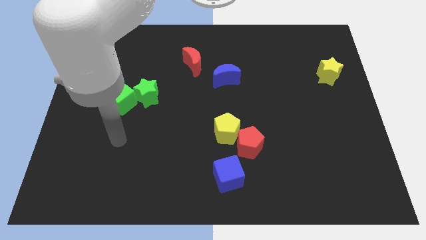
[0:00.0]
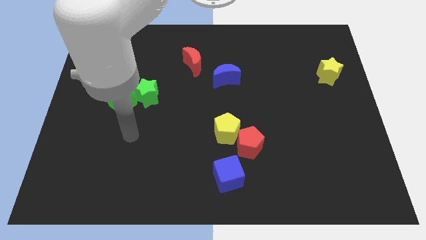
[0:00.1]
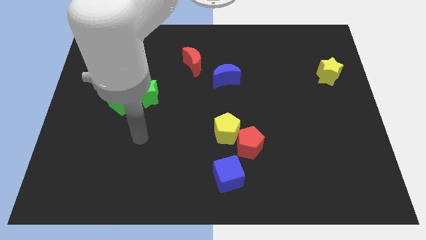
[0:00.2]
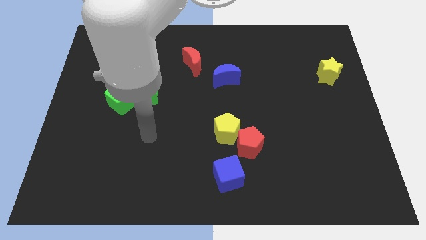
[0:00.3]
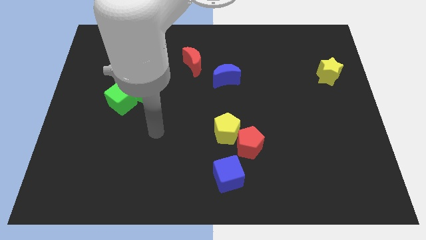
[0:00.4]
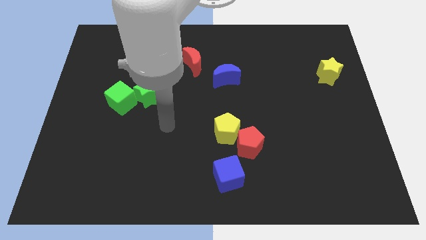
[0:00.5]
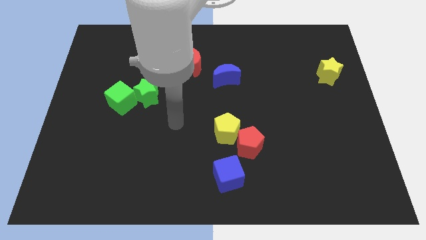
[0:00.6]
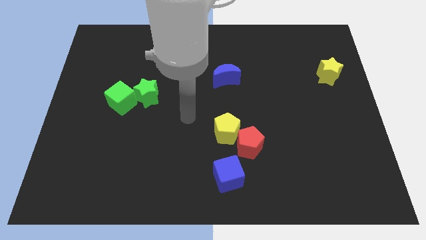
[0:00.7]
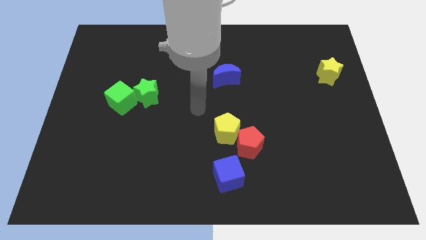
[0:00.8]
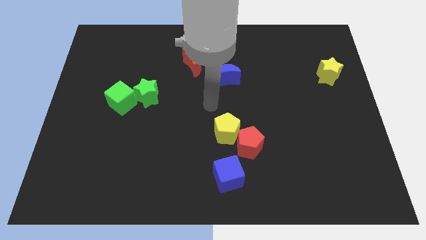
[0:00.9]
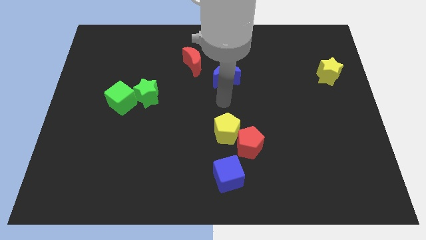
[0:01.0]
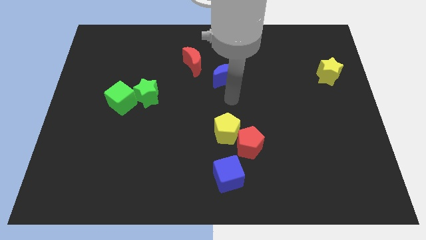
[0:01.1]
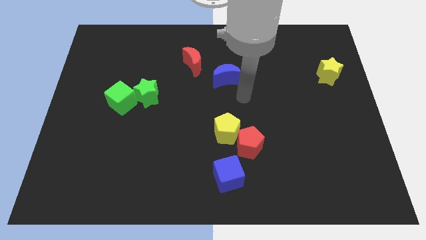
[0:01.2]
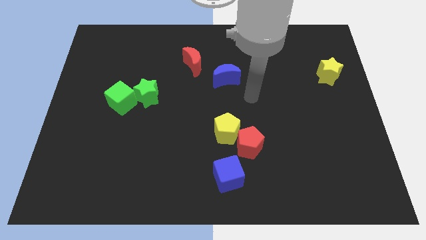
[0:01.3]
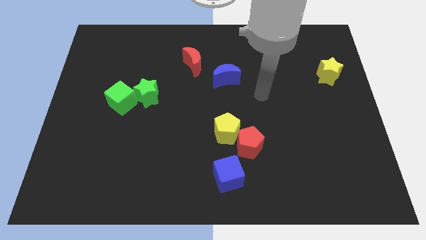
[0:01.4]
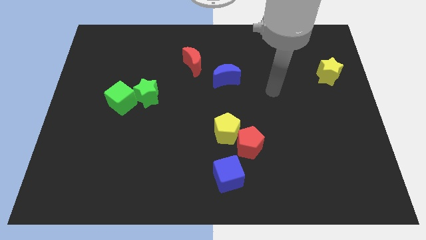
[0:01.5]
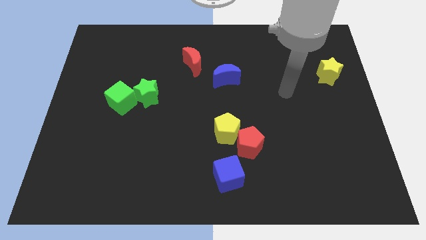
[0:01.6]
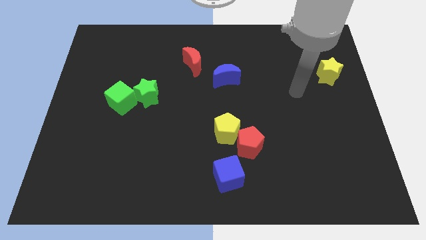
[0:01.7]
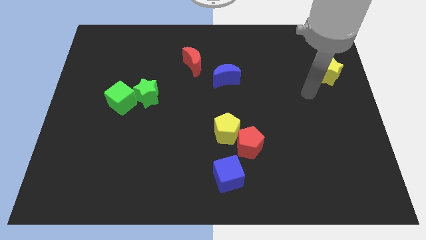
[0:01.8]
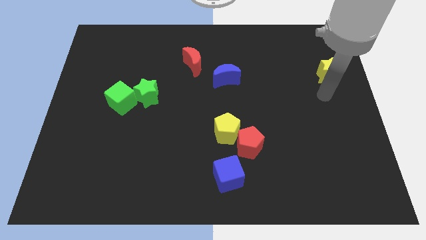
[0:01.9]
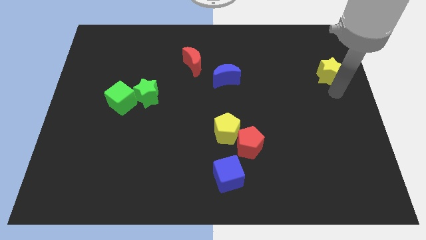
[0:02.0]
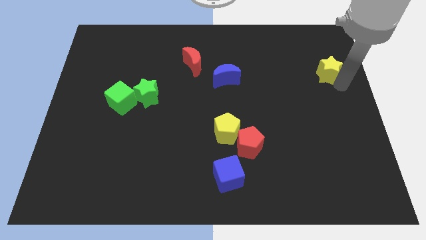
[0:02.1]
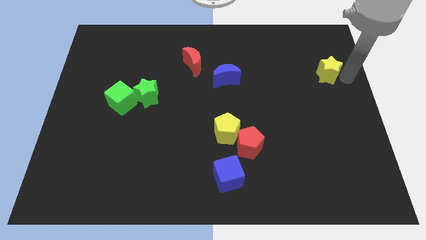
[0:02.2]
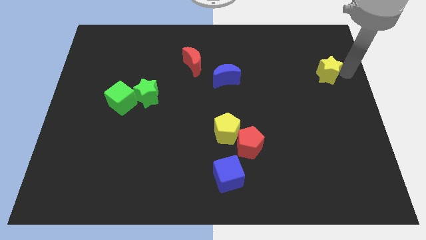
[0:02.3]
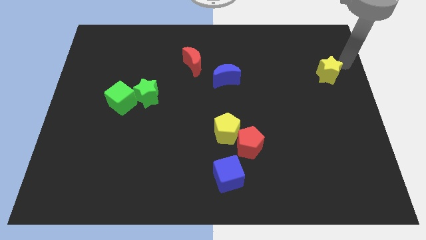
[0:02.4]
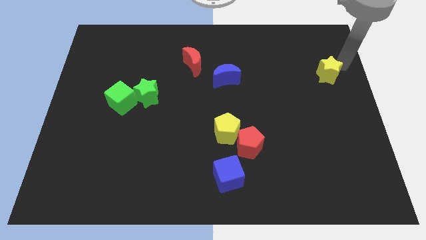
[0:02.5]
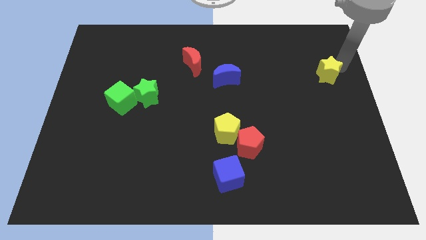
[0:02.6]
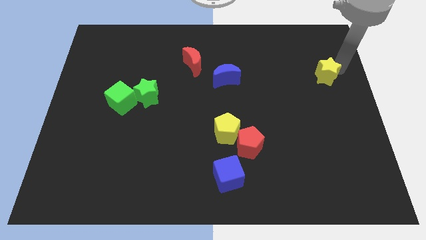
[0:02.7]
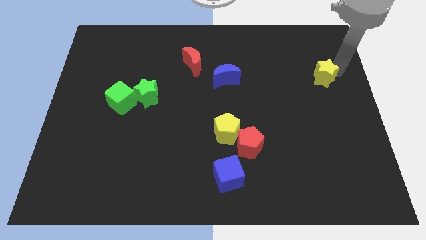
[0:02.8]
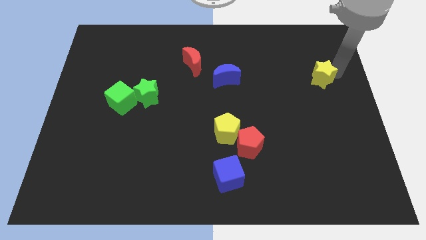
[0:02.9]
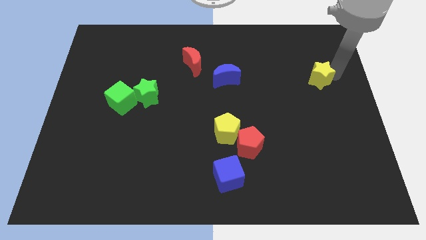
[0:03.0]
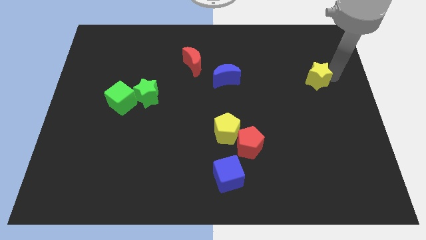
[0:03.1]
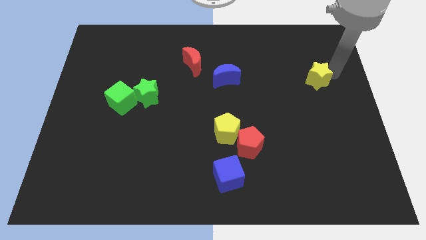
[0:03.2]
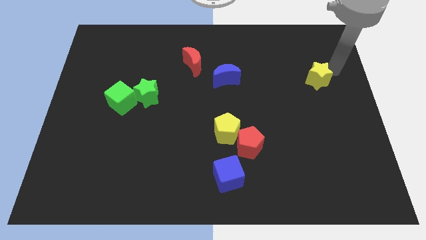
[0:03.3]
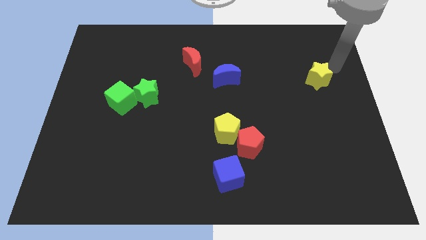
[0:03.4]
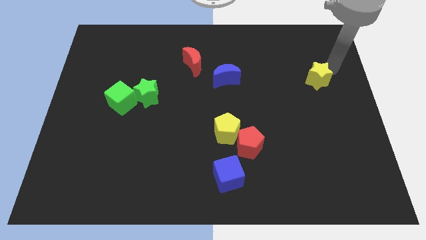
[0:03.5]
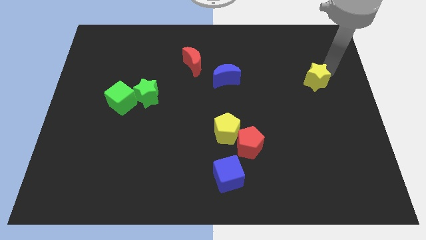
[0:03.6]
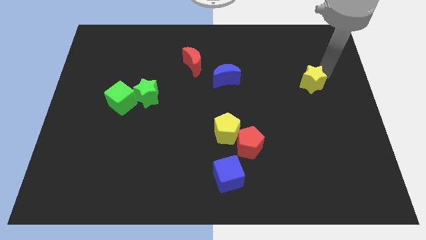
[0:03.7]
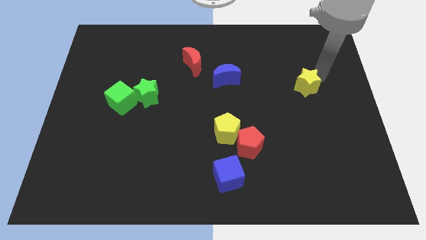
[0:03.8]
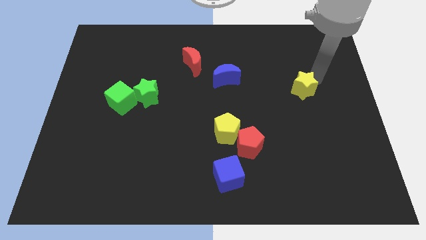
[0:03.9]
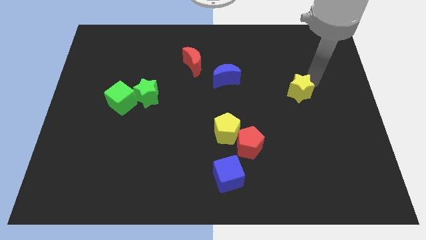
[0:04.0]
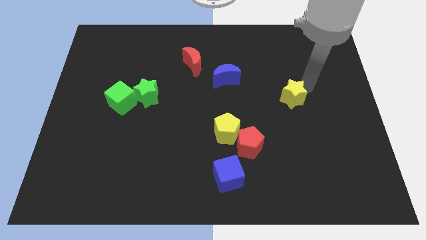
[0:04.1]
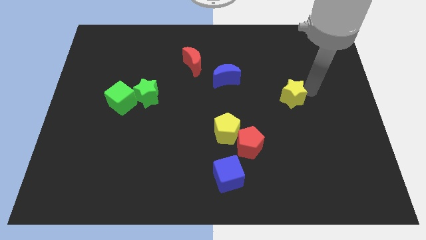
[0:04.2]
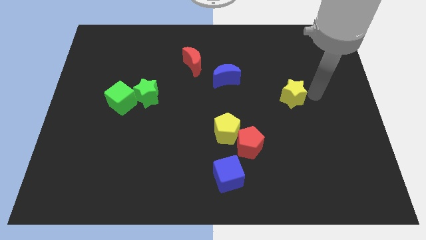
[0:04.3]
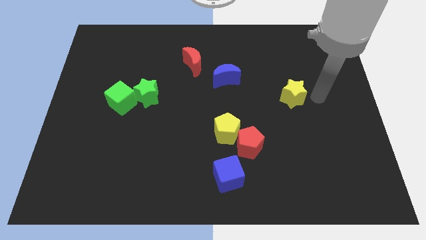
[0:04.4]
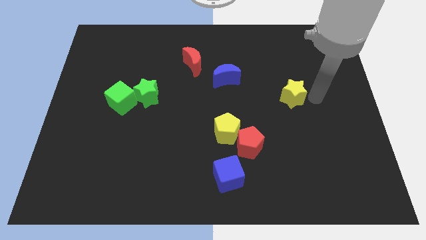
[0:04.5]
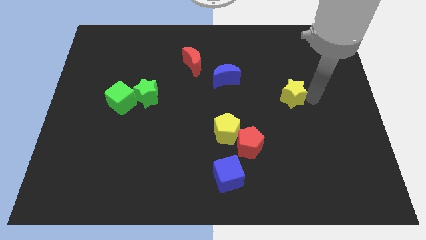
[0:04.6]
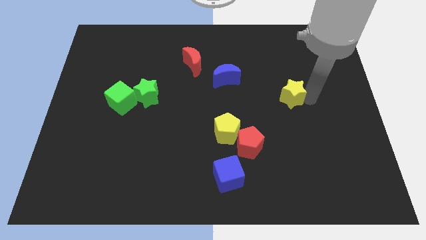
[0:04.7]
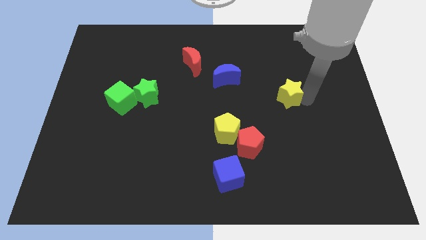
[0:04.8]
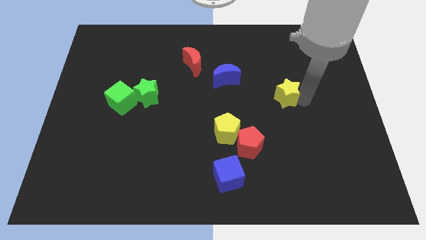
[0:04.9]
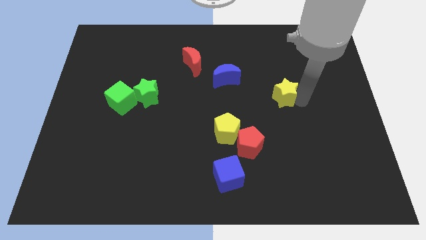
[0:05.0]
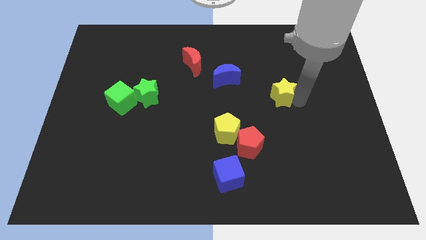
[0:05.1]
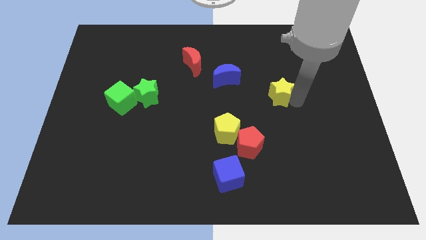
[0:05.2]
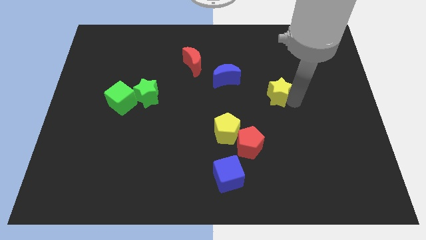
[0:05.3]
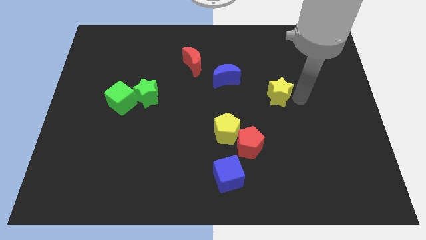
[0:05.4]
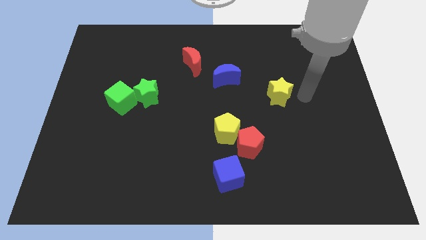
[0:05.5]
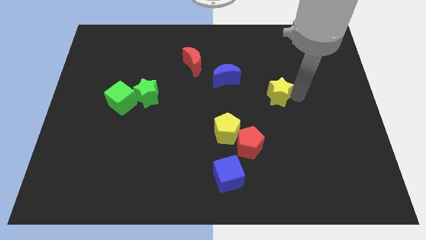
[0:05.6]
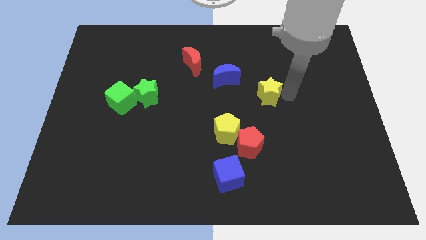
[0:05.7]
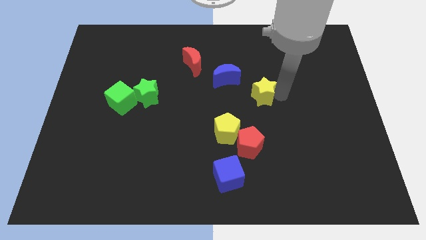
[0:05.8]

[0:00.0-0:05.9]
move the yellow star to the center of the board

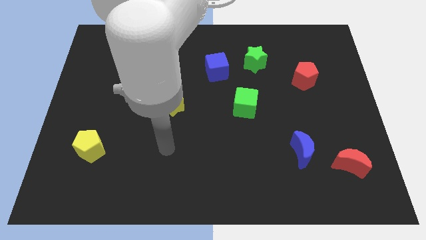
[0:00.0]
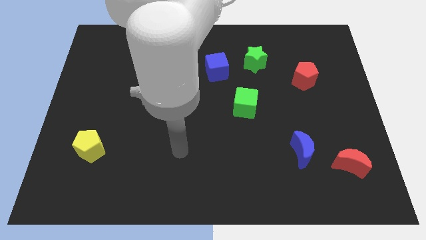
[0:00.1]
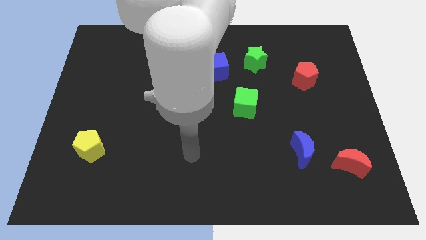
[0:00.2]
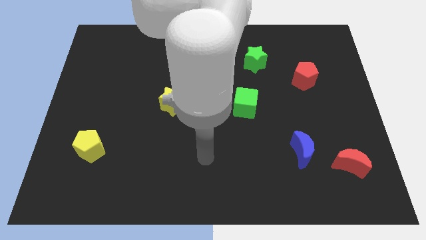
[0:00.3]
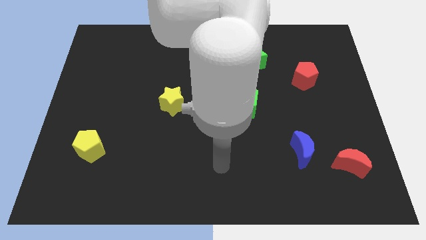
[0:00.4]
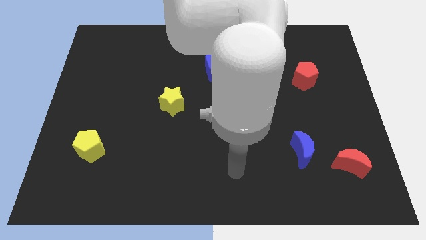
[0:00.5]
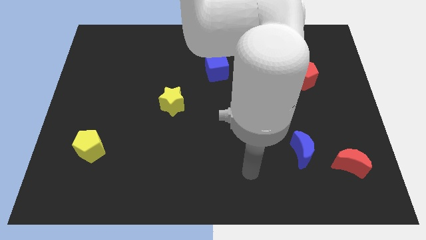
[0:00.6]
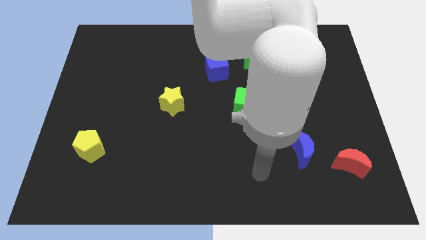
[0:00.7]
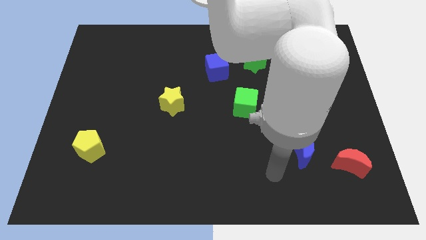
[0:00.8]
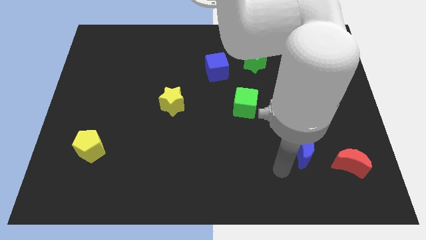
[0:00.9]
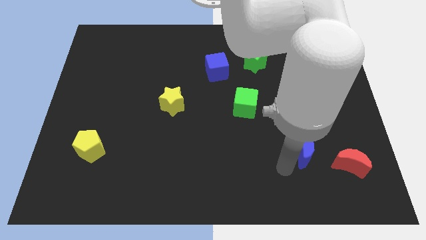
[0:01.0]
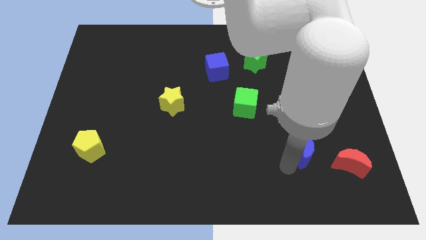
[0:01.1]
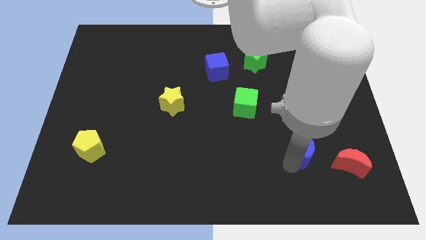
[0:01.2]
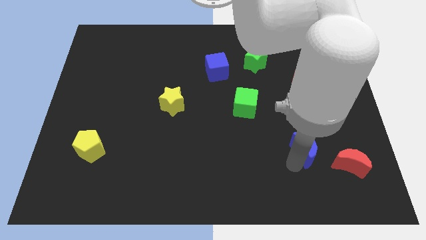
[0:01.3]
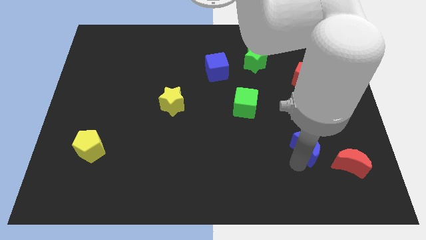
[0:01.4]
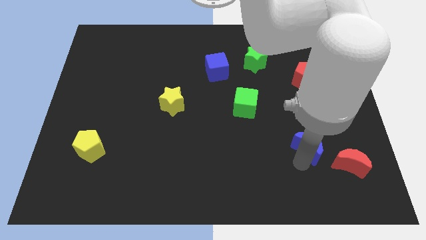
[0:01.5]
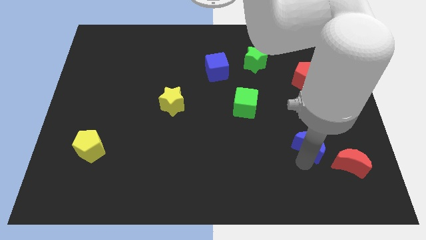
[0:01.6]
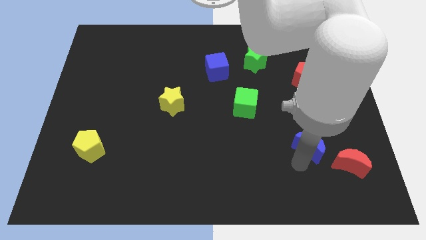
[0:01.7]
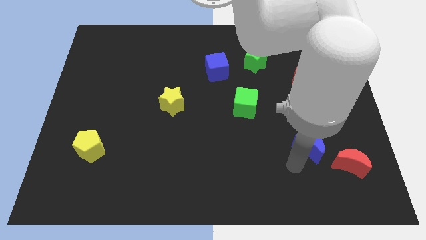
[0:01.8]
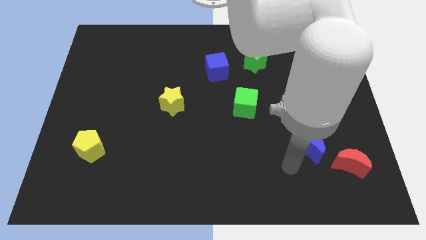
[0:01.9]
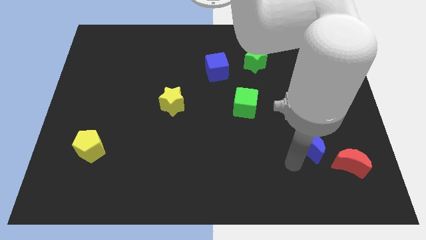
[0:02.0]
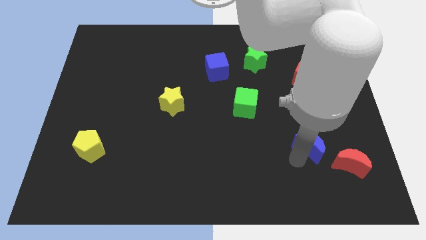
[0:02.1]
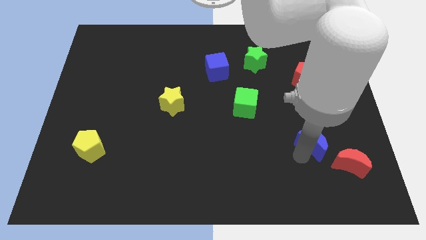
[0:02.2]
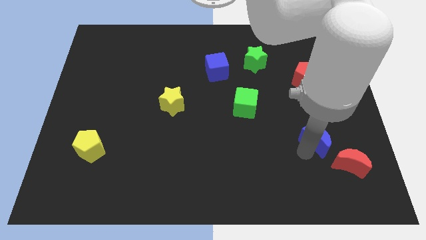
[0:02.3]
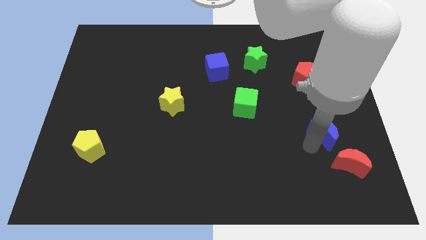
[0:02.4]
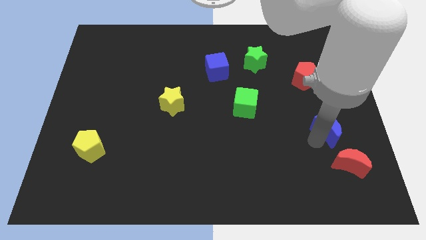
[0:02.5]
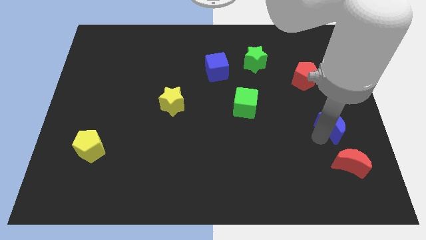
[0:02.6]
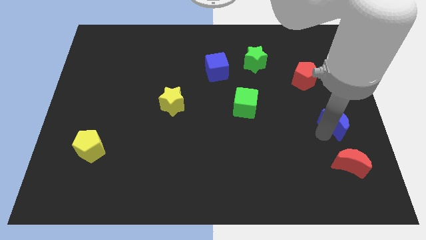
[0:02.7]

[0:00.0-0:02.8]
move the blue moon to the right side of the board
